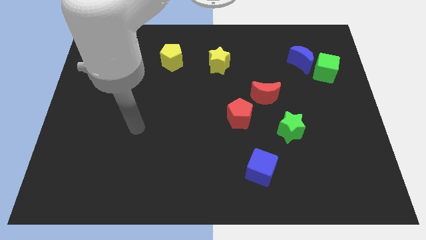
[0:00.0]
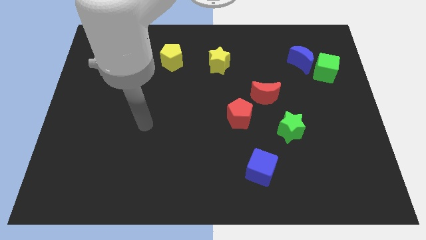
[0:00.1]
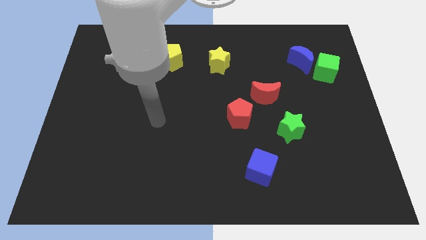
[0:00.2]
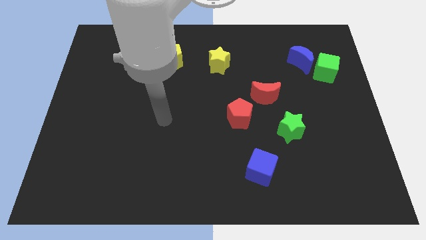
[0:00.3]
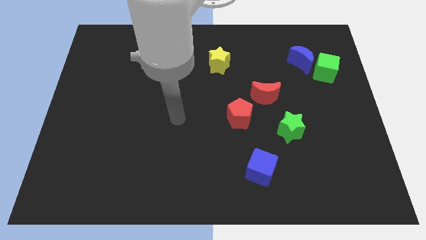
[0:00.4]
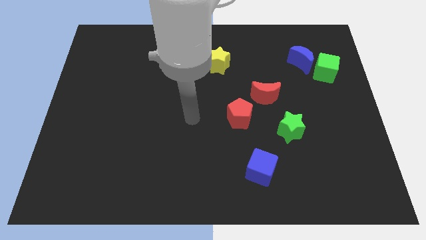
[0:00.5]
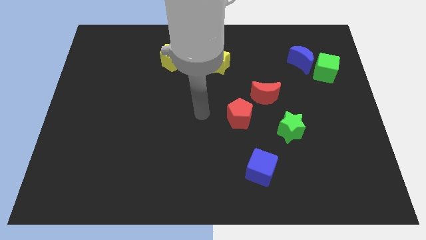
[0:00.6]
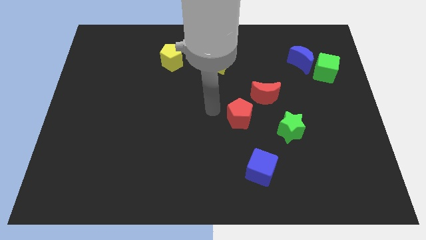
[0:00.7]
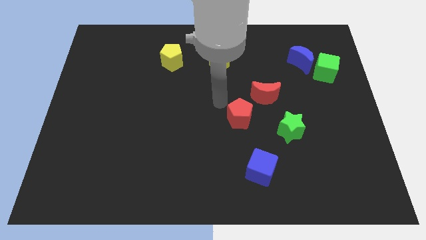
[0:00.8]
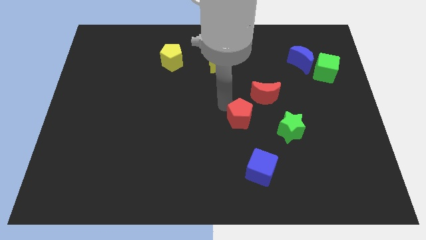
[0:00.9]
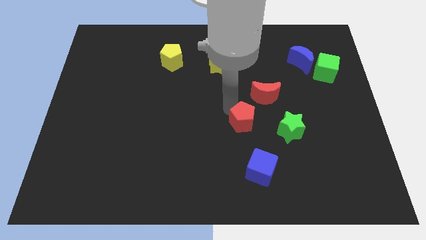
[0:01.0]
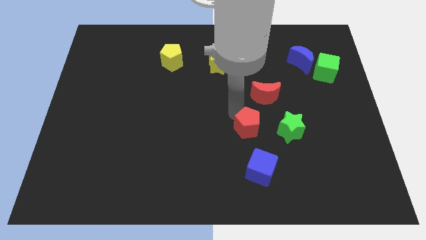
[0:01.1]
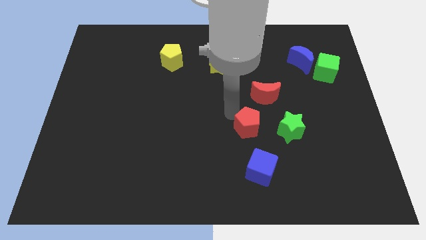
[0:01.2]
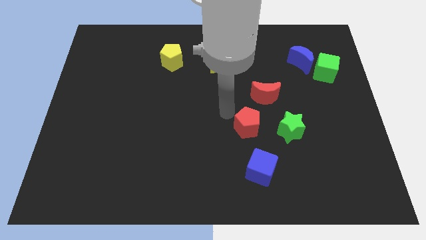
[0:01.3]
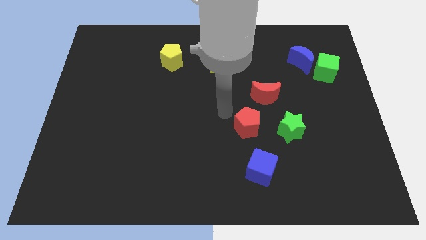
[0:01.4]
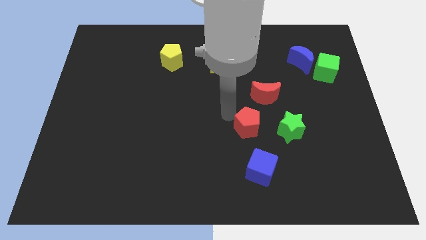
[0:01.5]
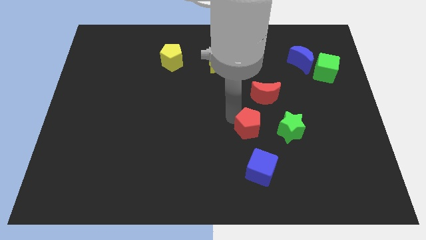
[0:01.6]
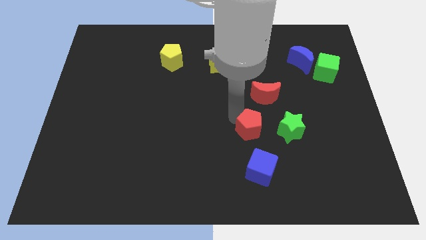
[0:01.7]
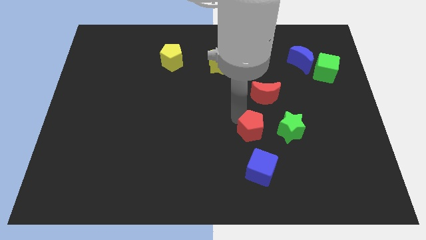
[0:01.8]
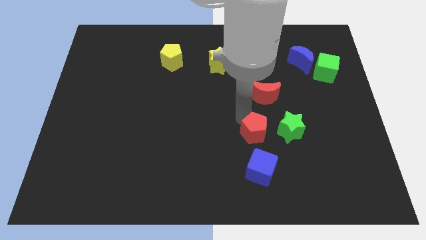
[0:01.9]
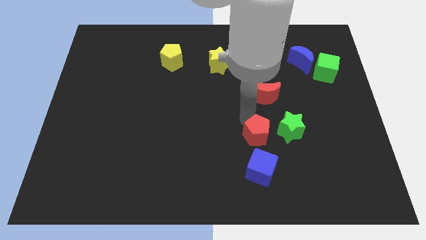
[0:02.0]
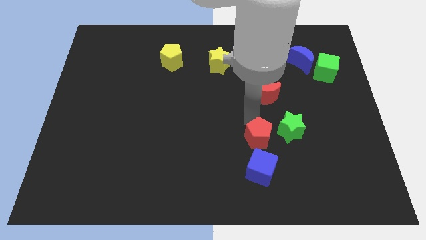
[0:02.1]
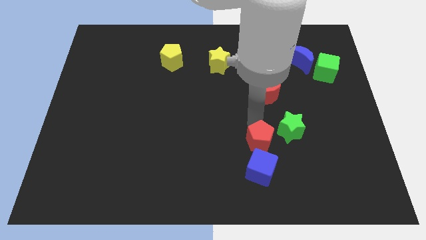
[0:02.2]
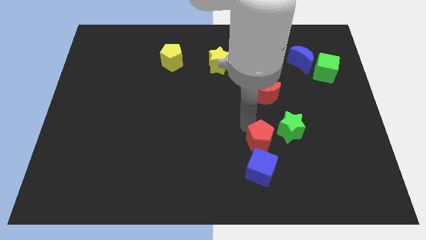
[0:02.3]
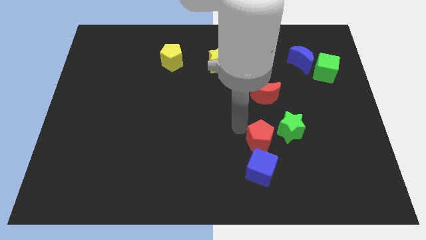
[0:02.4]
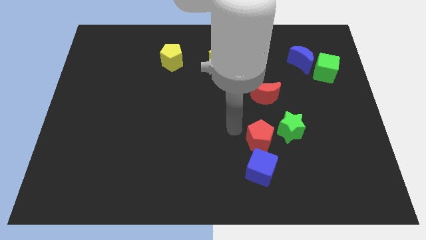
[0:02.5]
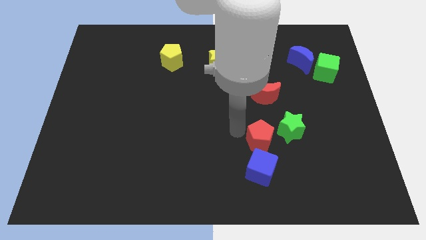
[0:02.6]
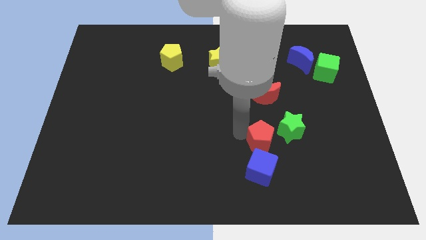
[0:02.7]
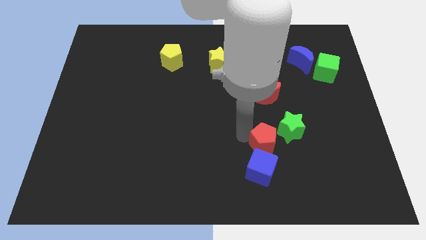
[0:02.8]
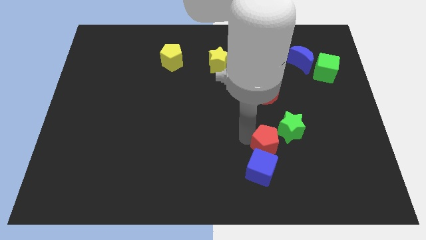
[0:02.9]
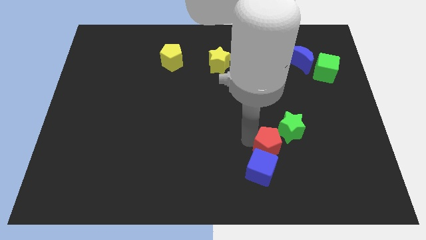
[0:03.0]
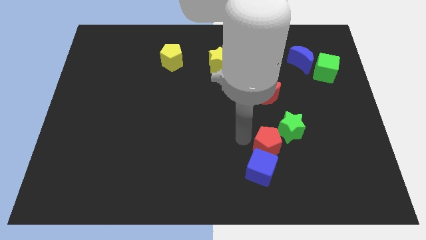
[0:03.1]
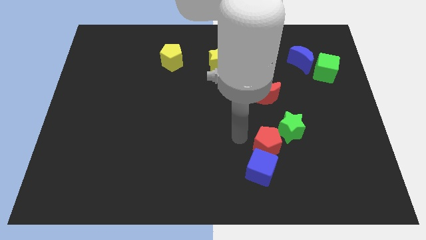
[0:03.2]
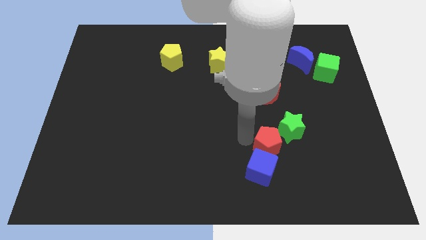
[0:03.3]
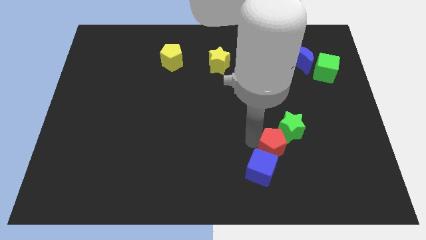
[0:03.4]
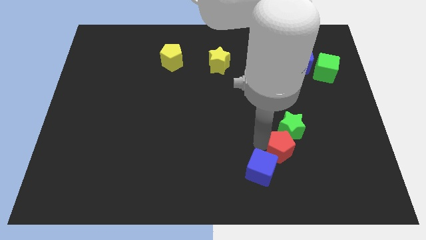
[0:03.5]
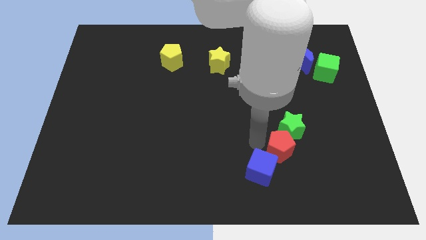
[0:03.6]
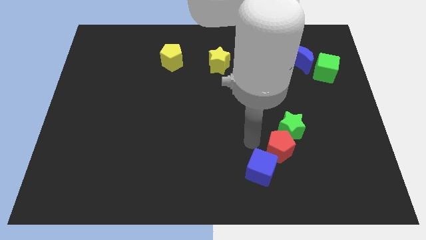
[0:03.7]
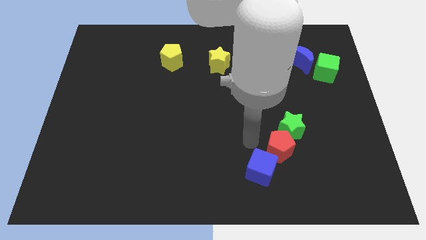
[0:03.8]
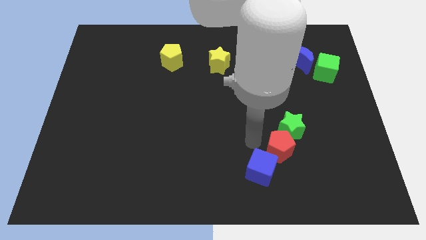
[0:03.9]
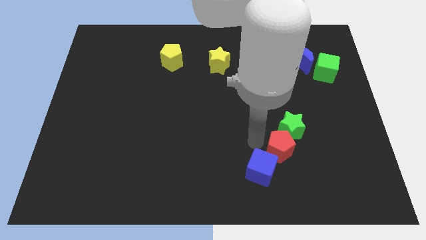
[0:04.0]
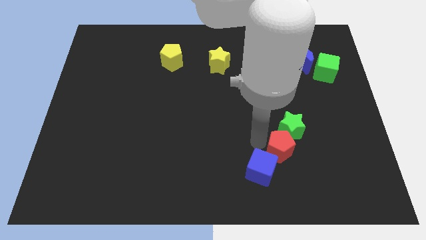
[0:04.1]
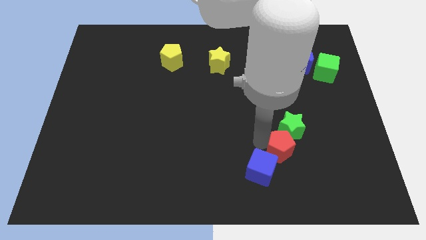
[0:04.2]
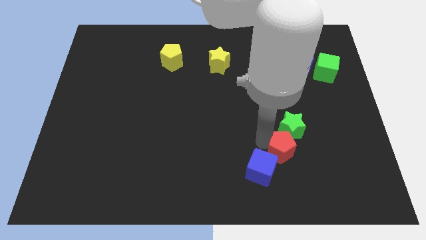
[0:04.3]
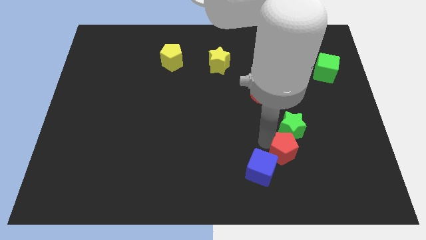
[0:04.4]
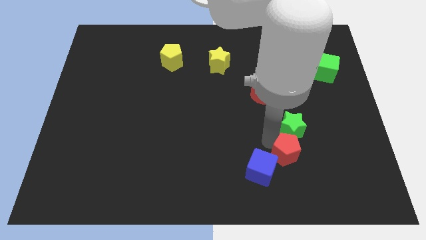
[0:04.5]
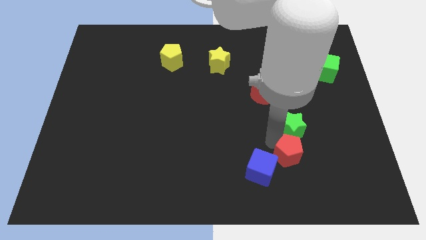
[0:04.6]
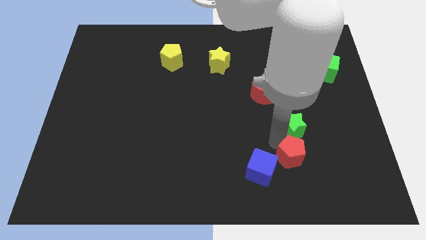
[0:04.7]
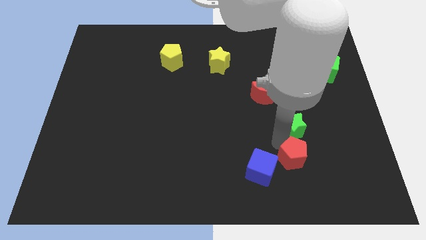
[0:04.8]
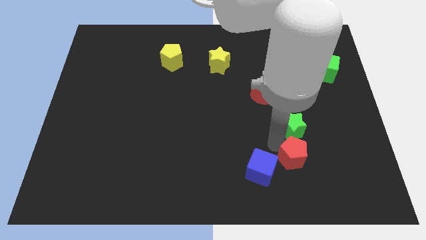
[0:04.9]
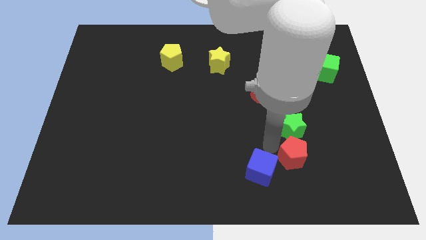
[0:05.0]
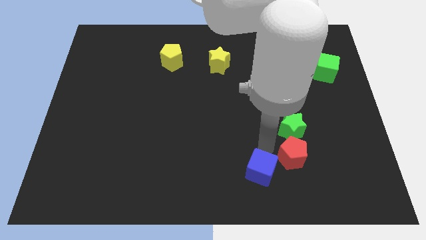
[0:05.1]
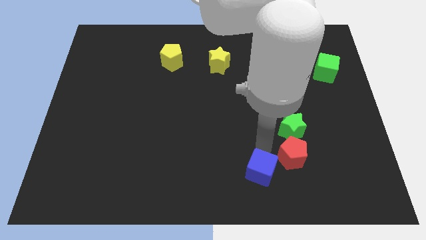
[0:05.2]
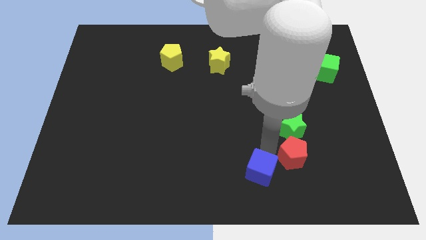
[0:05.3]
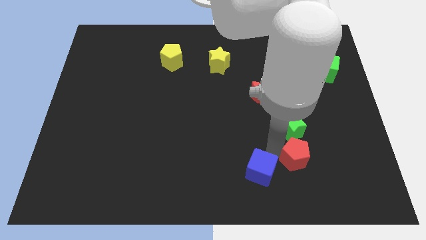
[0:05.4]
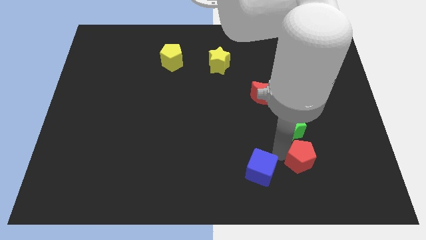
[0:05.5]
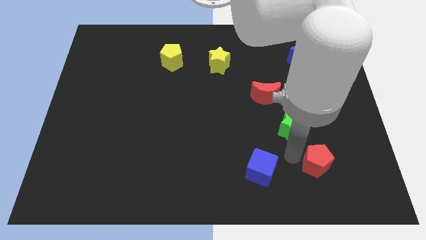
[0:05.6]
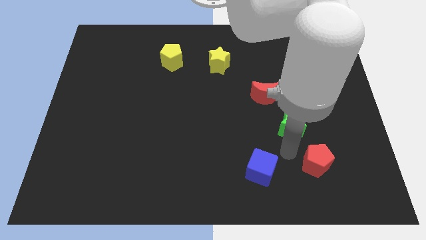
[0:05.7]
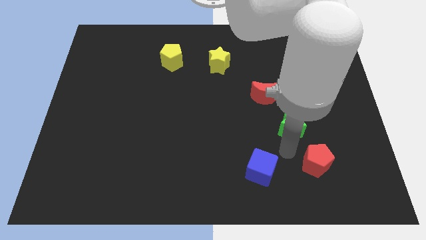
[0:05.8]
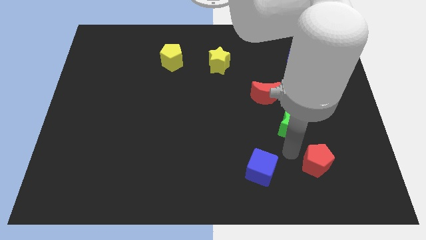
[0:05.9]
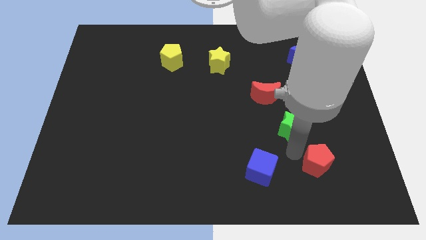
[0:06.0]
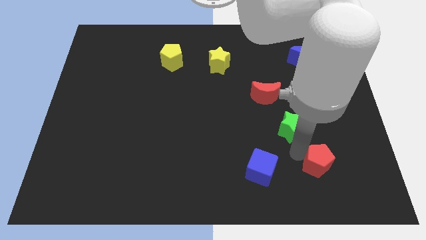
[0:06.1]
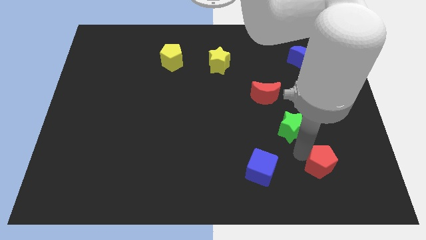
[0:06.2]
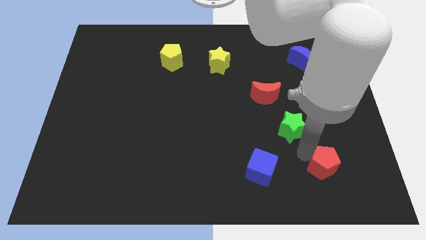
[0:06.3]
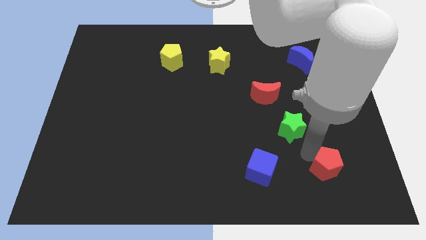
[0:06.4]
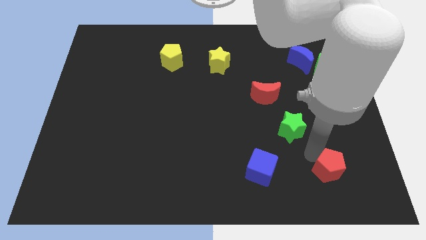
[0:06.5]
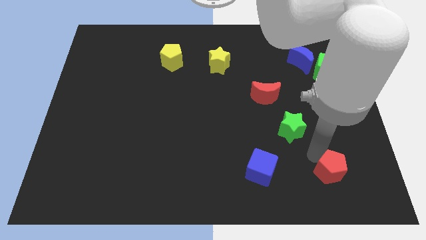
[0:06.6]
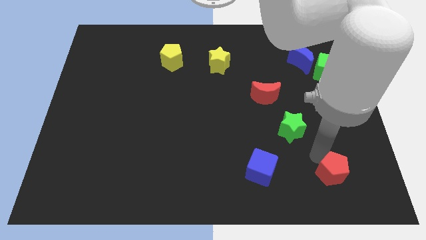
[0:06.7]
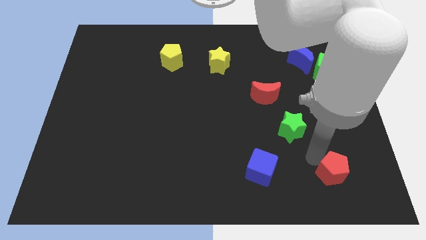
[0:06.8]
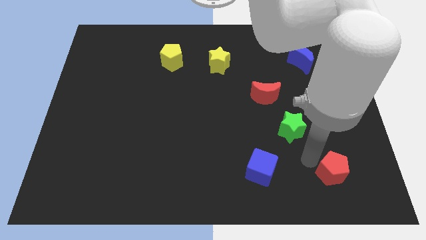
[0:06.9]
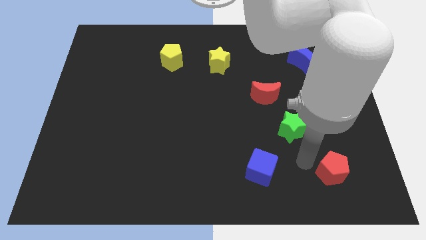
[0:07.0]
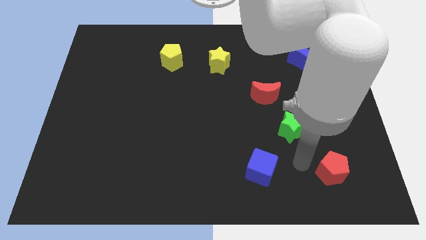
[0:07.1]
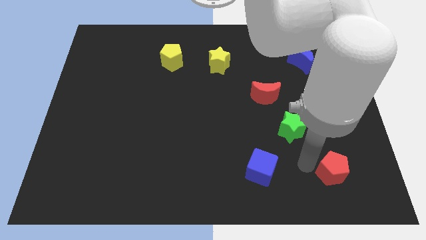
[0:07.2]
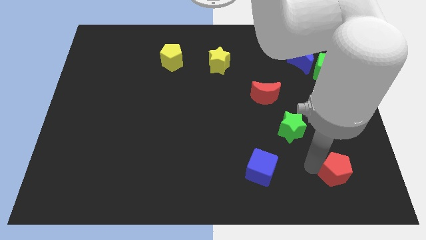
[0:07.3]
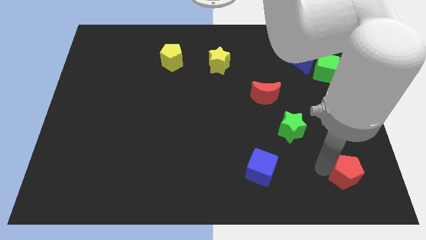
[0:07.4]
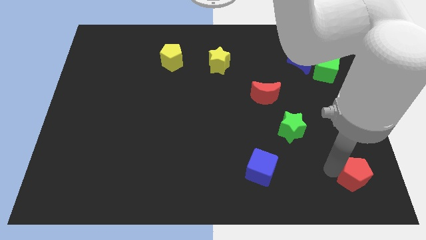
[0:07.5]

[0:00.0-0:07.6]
slide the red pentagon to the bottom right of the board
